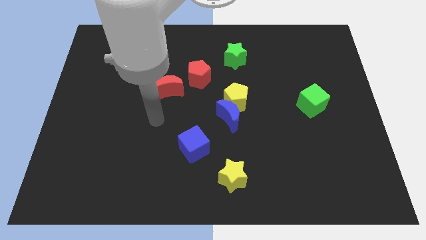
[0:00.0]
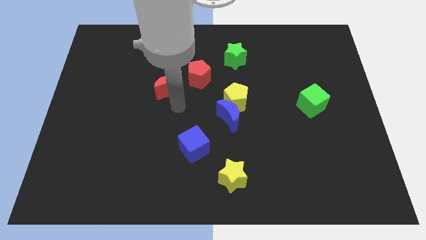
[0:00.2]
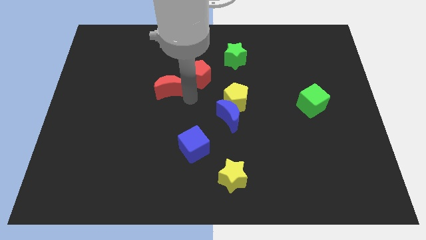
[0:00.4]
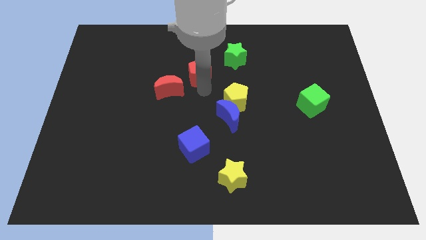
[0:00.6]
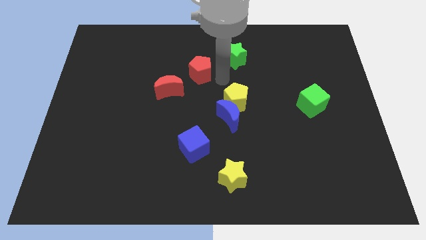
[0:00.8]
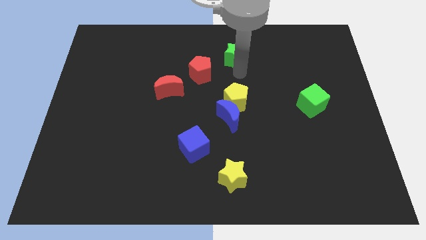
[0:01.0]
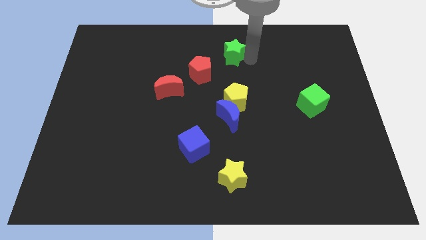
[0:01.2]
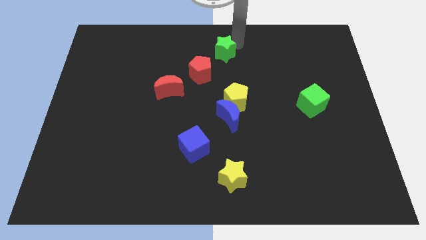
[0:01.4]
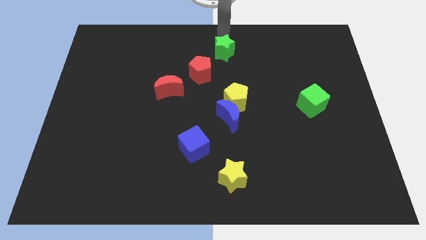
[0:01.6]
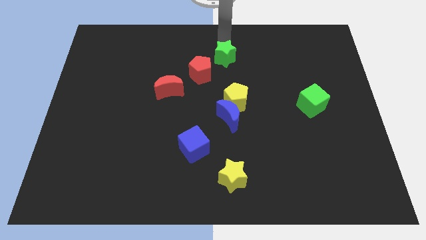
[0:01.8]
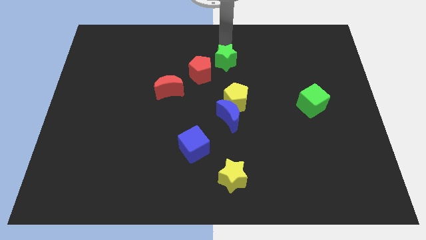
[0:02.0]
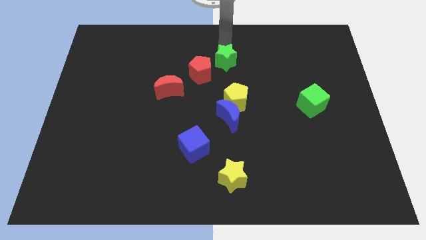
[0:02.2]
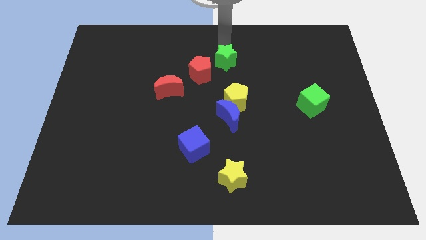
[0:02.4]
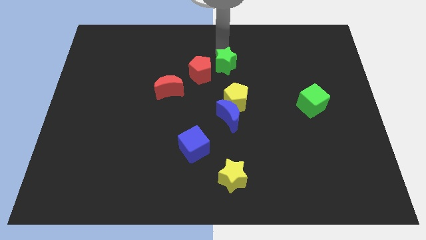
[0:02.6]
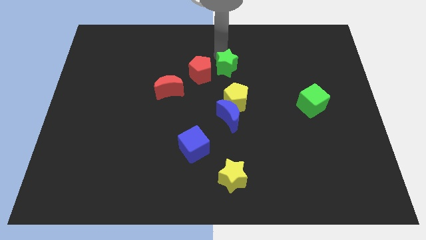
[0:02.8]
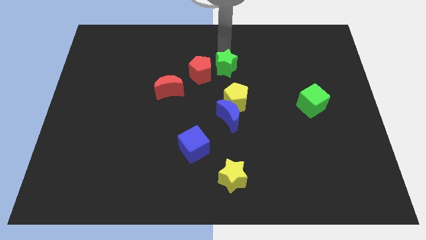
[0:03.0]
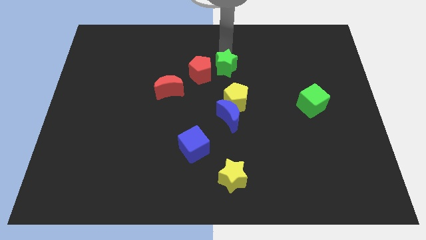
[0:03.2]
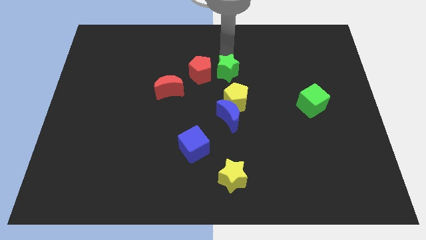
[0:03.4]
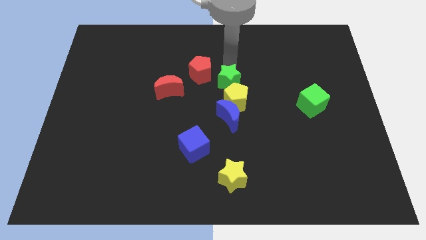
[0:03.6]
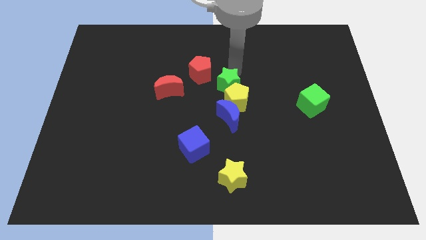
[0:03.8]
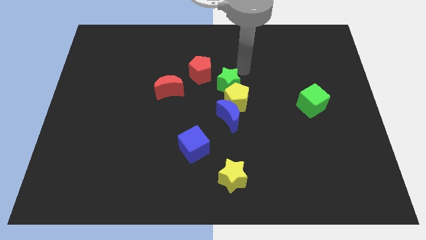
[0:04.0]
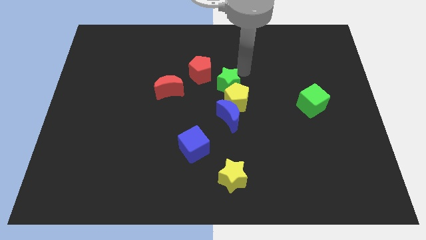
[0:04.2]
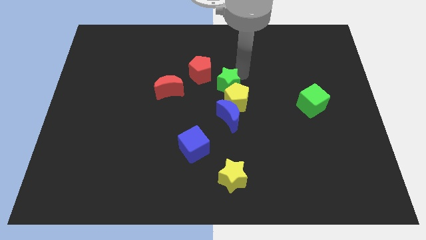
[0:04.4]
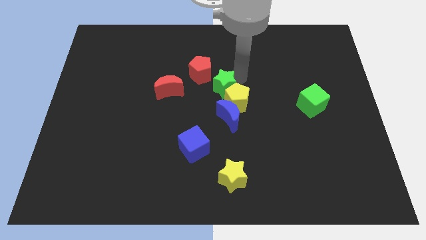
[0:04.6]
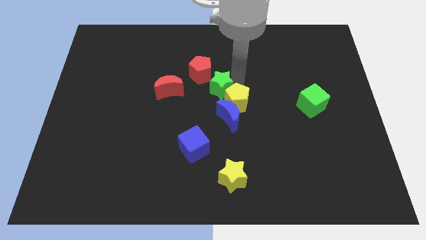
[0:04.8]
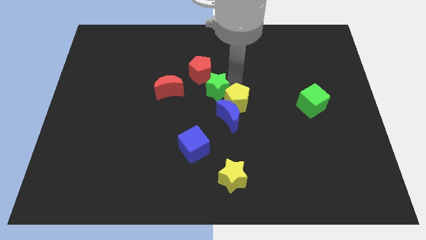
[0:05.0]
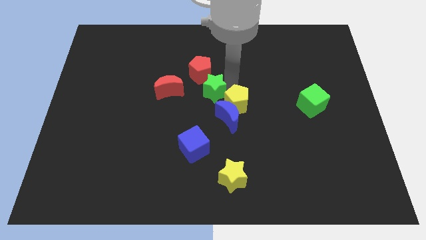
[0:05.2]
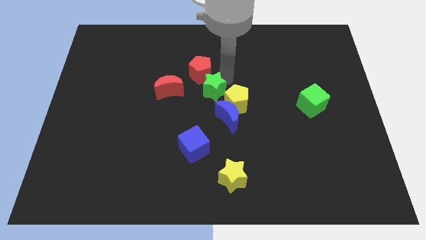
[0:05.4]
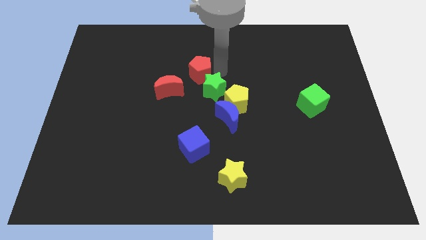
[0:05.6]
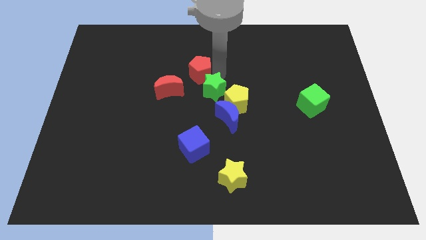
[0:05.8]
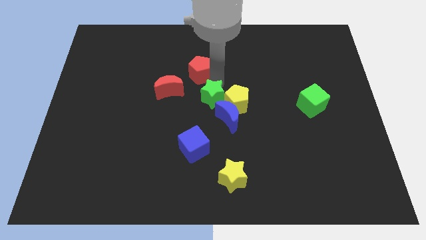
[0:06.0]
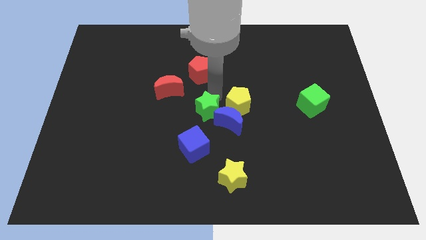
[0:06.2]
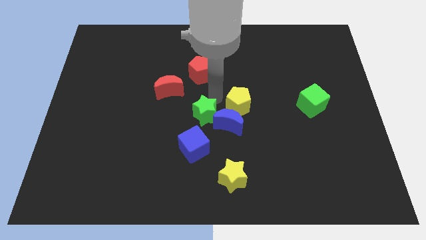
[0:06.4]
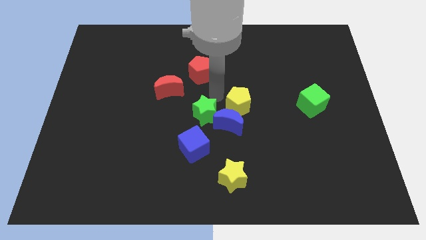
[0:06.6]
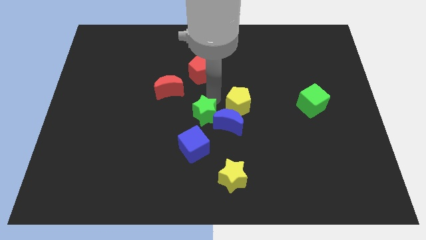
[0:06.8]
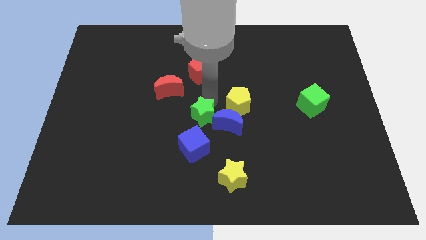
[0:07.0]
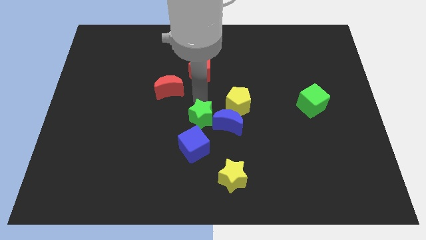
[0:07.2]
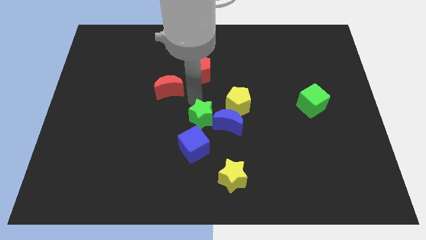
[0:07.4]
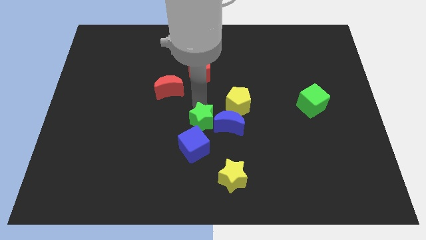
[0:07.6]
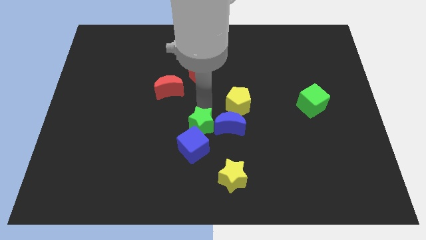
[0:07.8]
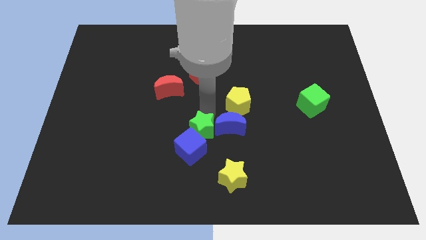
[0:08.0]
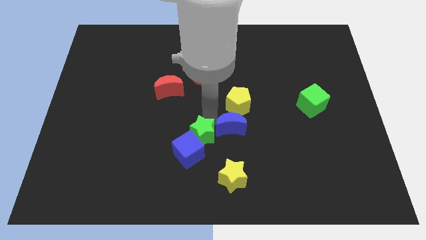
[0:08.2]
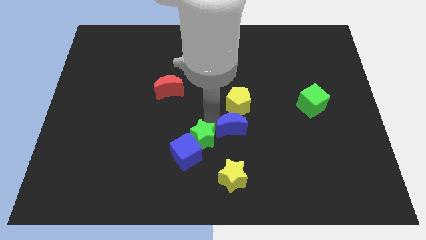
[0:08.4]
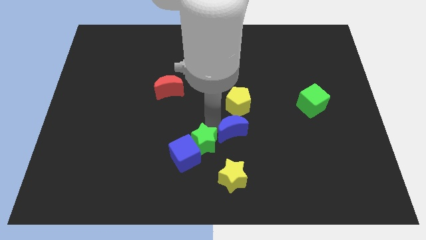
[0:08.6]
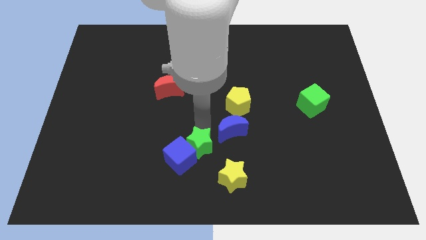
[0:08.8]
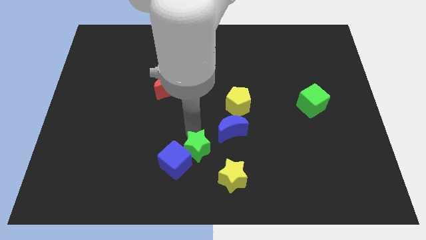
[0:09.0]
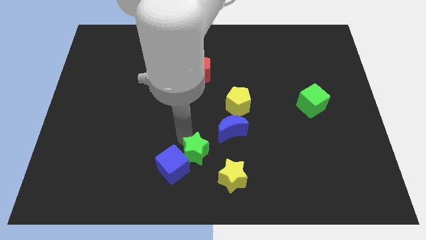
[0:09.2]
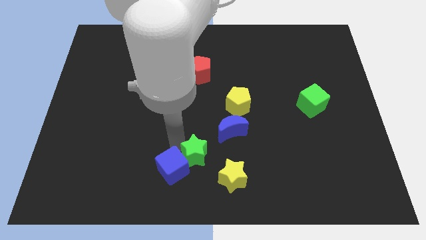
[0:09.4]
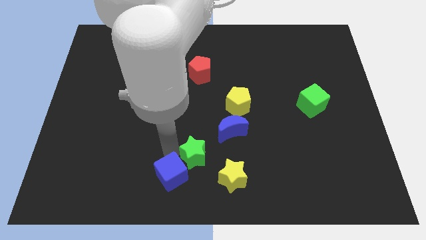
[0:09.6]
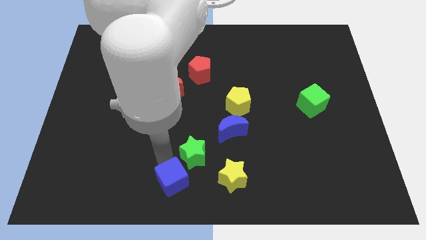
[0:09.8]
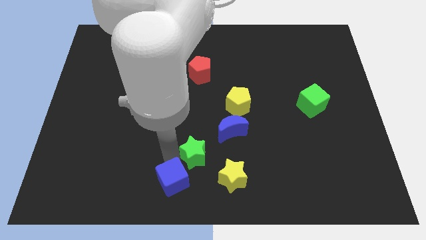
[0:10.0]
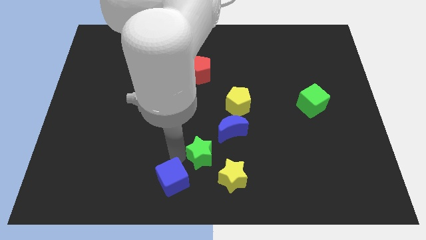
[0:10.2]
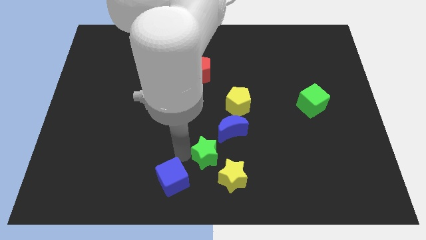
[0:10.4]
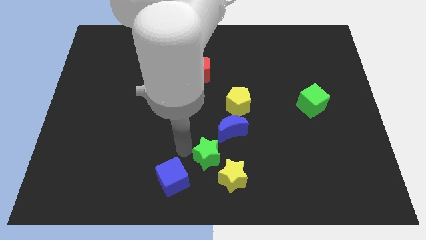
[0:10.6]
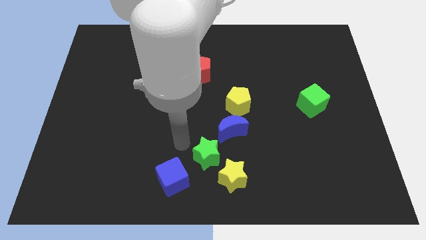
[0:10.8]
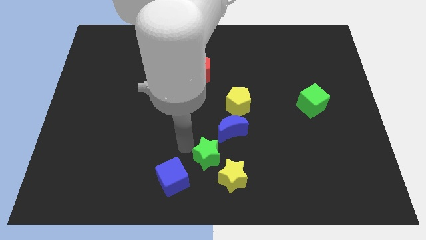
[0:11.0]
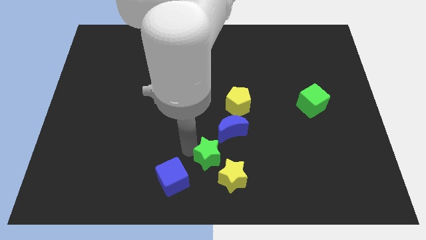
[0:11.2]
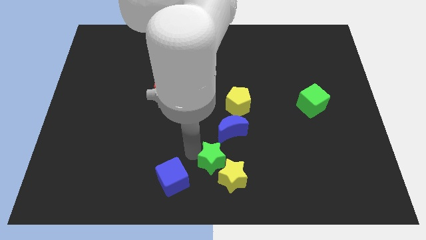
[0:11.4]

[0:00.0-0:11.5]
slide the green star close to the yellow star

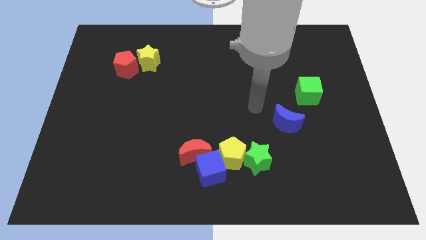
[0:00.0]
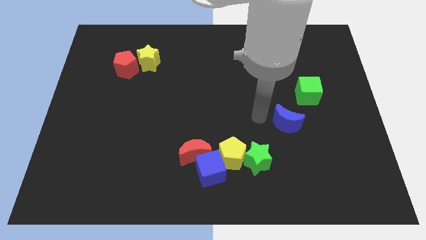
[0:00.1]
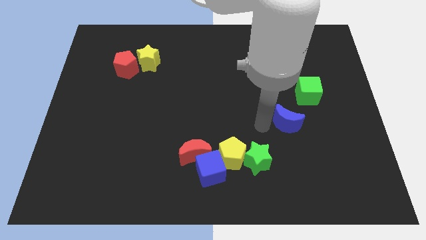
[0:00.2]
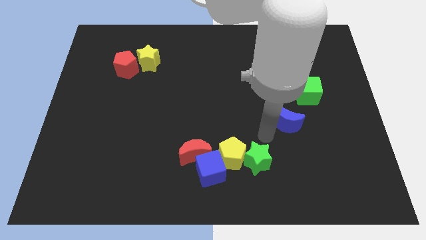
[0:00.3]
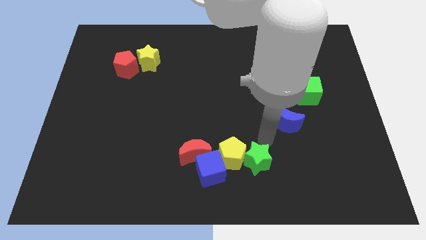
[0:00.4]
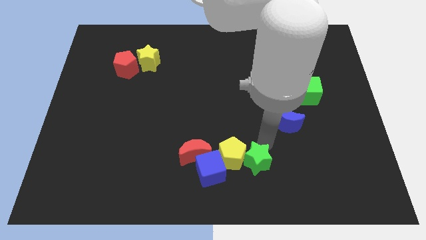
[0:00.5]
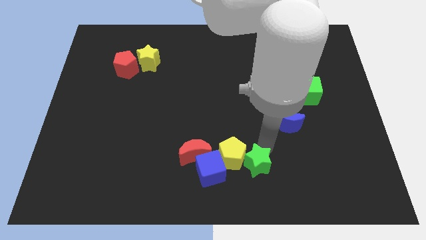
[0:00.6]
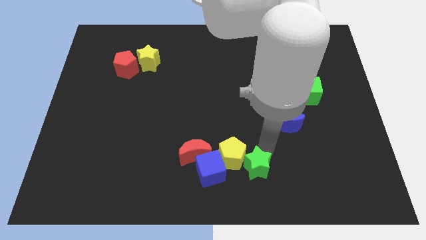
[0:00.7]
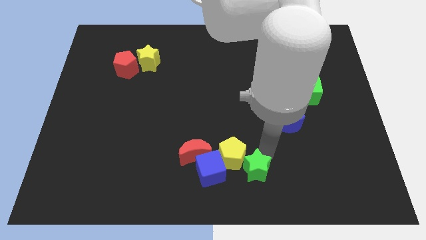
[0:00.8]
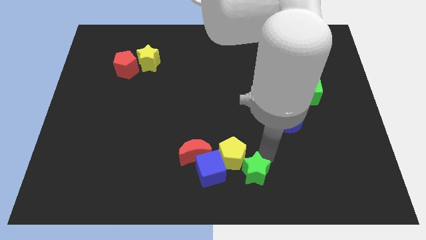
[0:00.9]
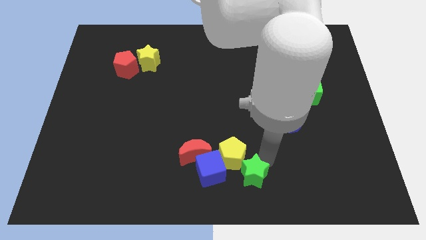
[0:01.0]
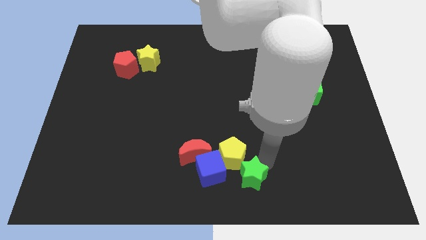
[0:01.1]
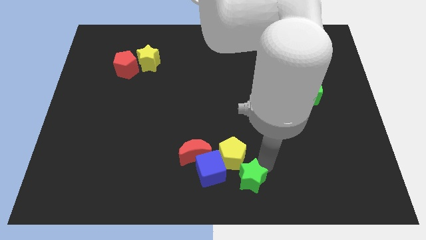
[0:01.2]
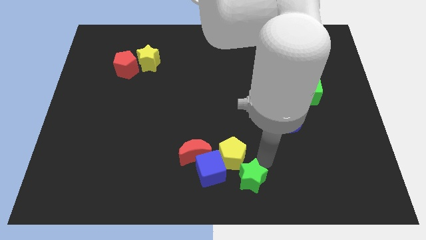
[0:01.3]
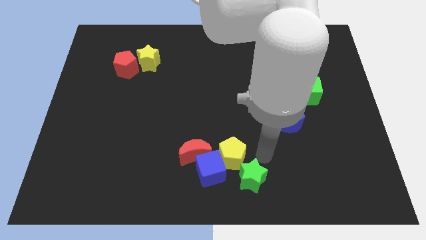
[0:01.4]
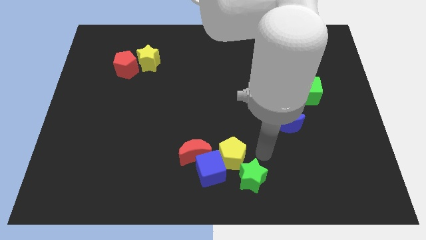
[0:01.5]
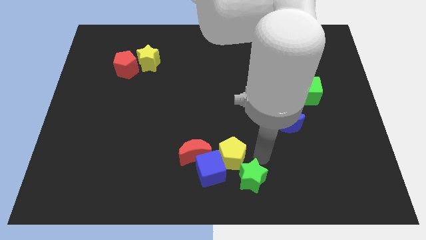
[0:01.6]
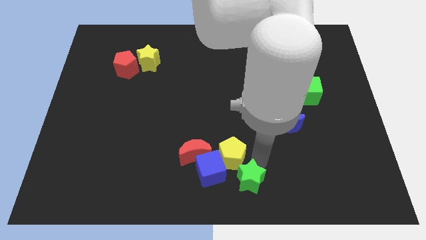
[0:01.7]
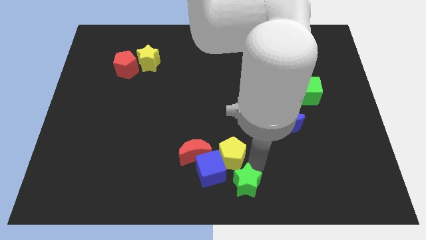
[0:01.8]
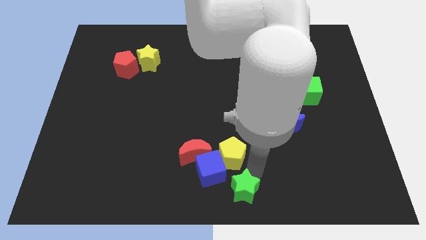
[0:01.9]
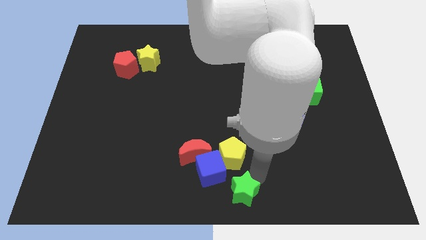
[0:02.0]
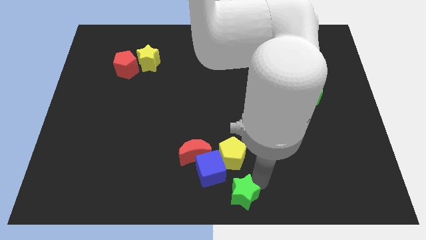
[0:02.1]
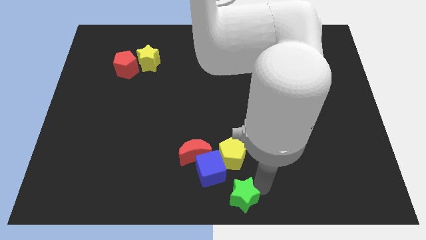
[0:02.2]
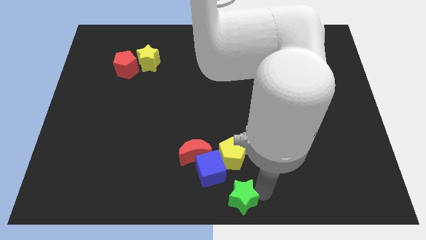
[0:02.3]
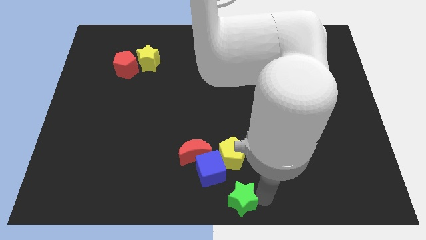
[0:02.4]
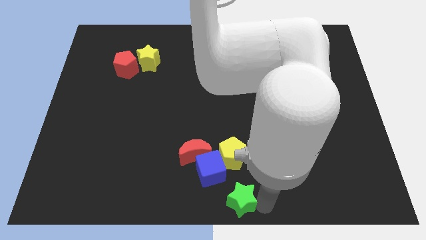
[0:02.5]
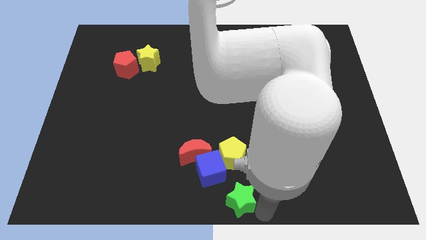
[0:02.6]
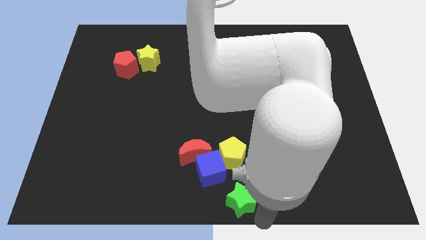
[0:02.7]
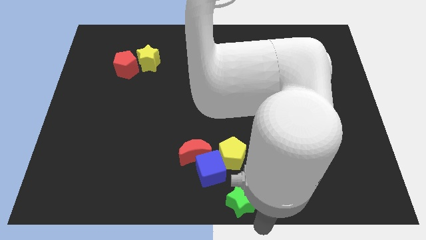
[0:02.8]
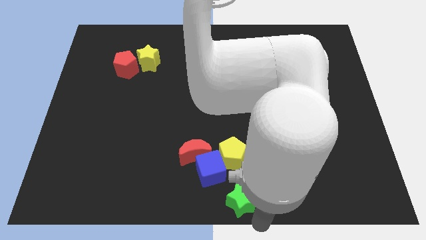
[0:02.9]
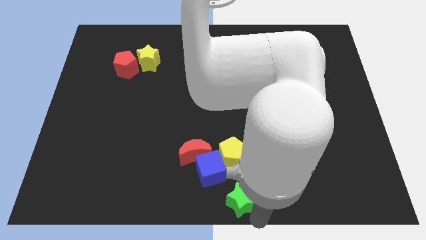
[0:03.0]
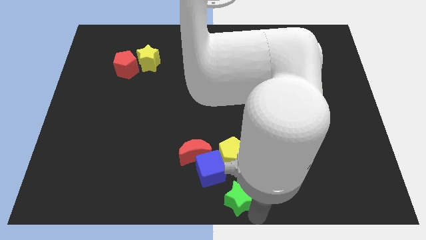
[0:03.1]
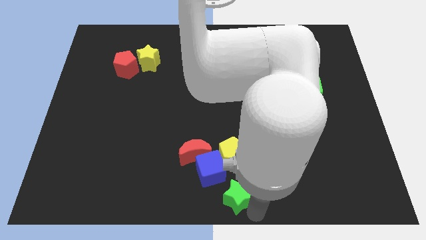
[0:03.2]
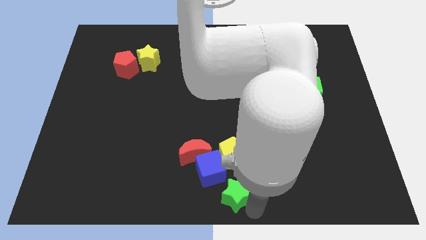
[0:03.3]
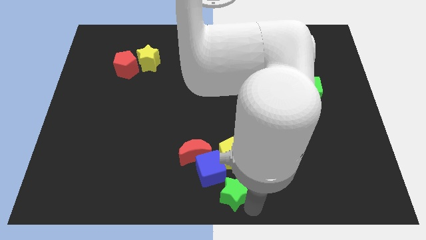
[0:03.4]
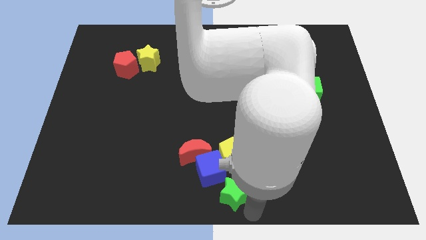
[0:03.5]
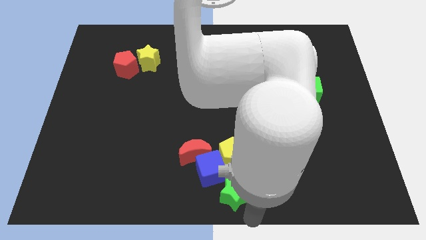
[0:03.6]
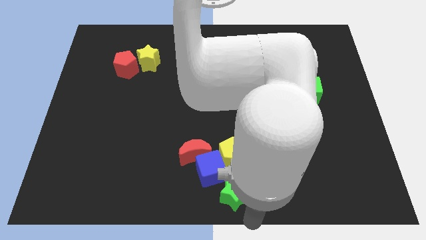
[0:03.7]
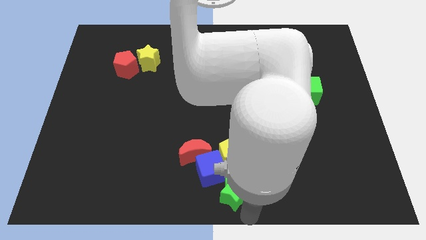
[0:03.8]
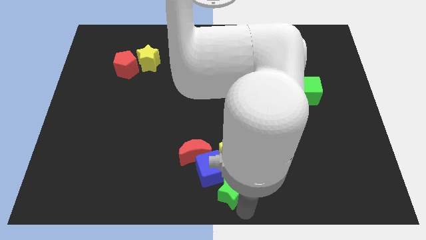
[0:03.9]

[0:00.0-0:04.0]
slide the green star towards the blue cube
